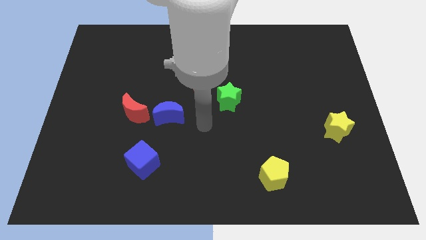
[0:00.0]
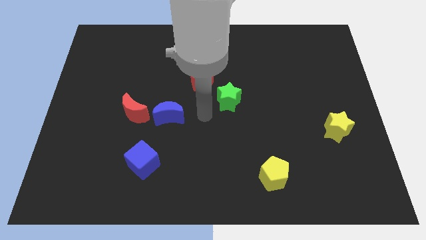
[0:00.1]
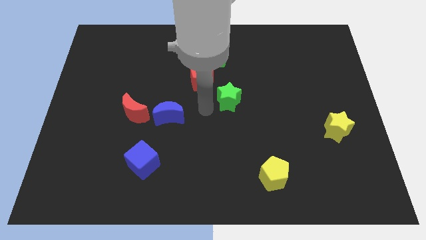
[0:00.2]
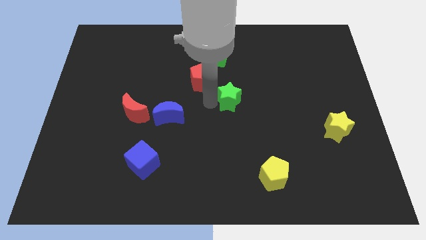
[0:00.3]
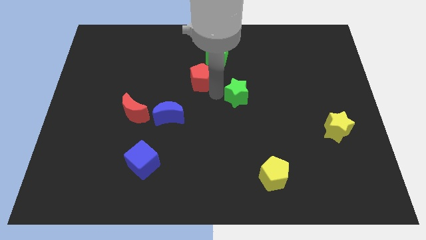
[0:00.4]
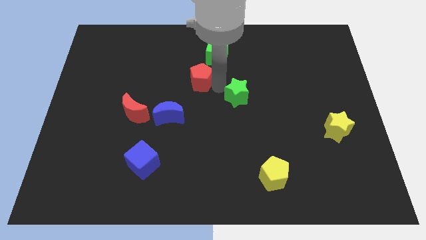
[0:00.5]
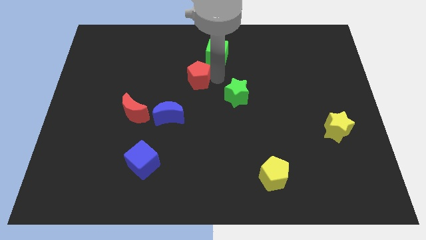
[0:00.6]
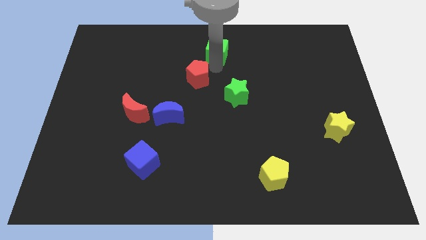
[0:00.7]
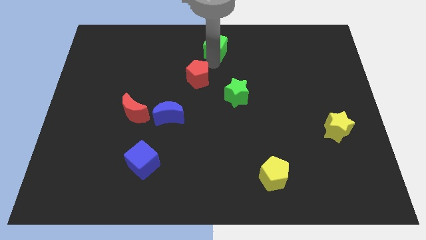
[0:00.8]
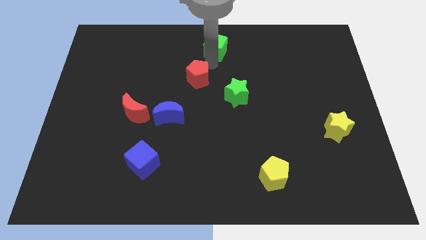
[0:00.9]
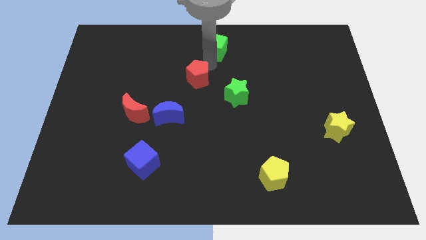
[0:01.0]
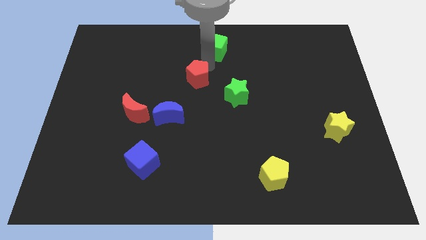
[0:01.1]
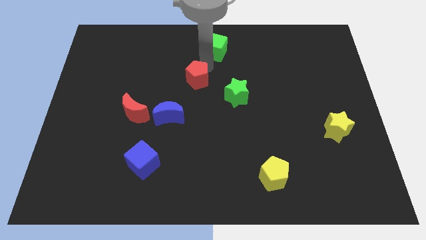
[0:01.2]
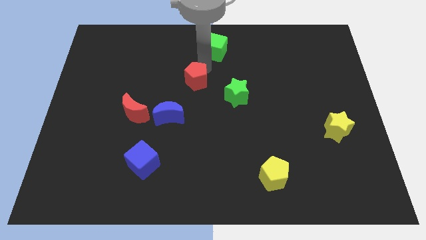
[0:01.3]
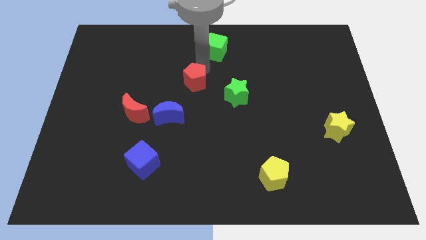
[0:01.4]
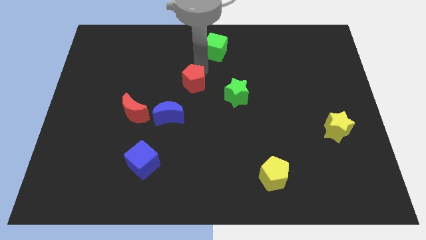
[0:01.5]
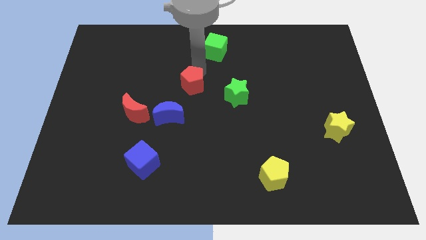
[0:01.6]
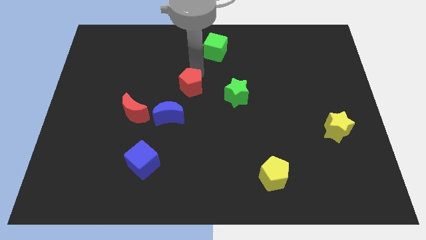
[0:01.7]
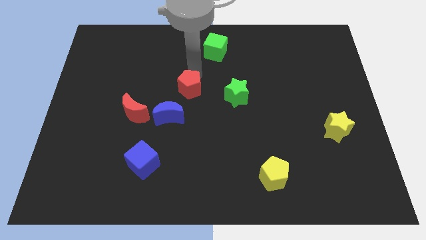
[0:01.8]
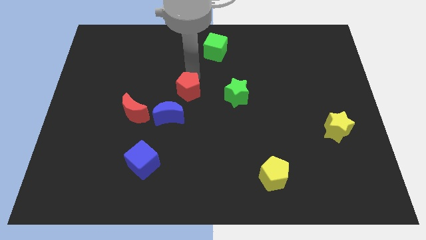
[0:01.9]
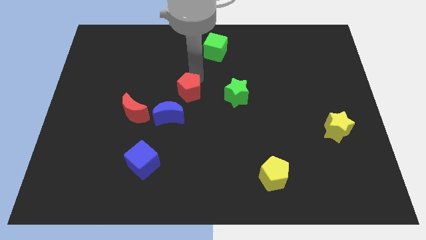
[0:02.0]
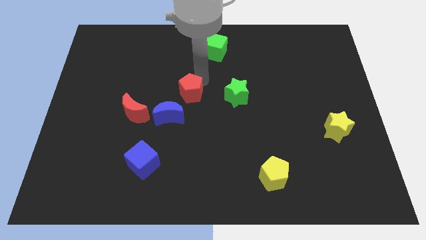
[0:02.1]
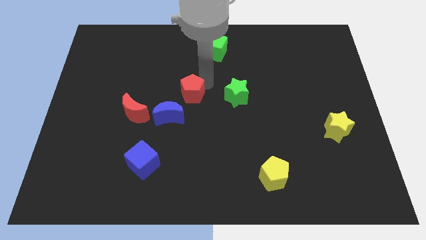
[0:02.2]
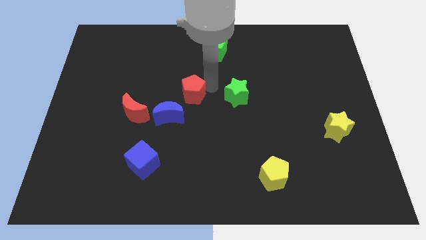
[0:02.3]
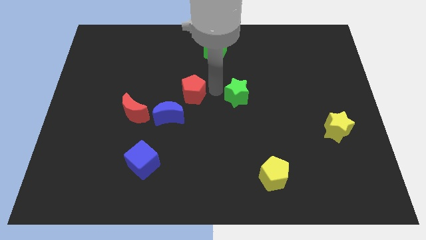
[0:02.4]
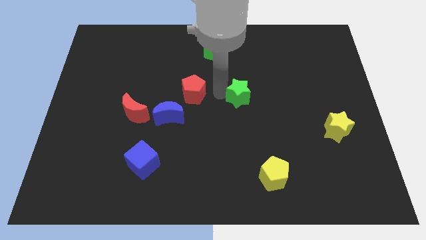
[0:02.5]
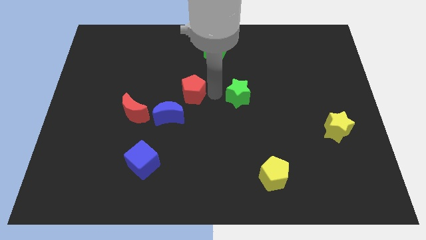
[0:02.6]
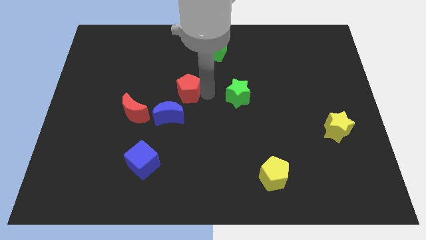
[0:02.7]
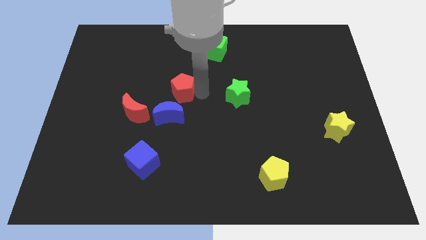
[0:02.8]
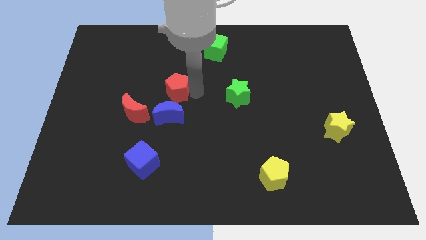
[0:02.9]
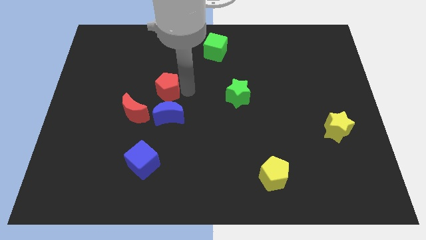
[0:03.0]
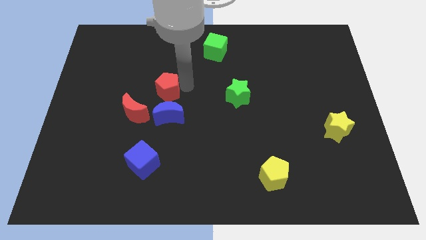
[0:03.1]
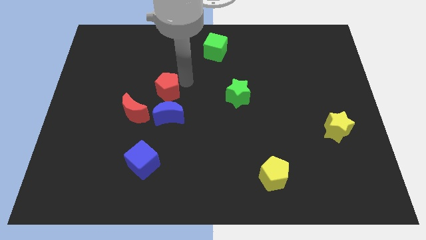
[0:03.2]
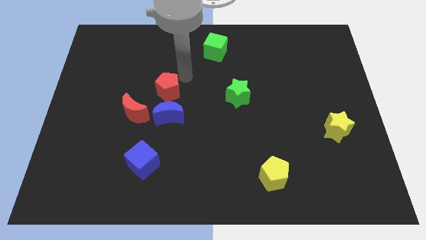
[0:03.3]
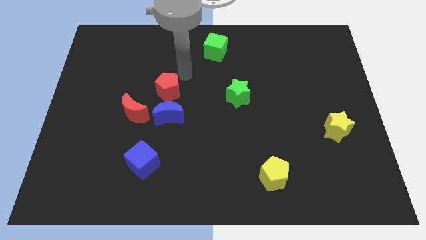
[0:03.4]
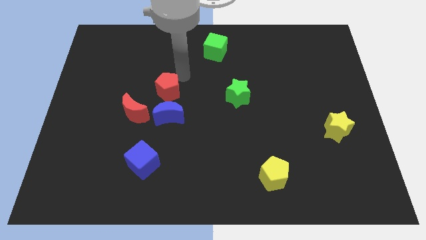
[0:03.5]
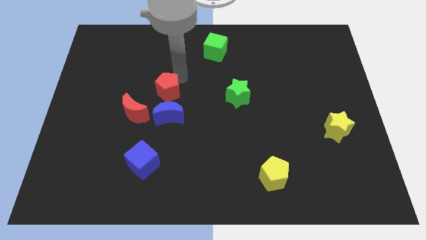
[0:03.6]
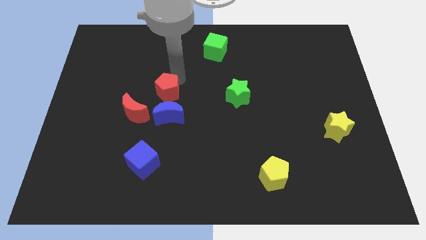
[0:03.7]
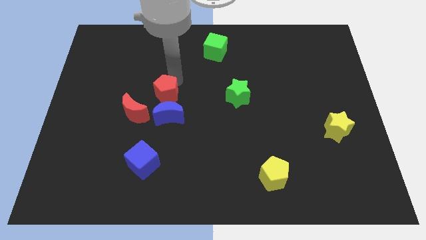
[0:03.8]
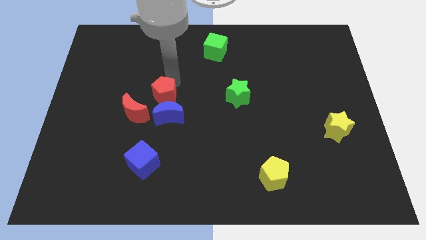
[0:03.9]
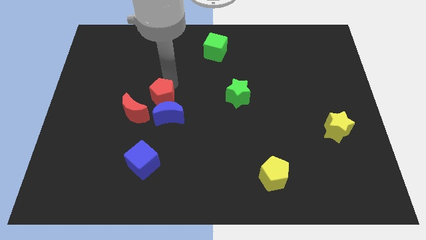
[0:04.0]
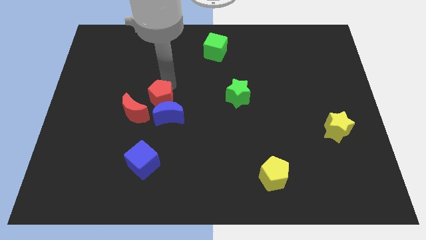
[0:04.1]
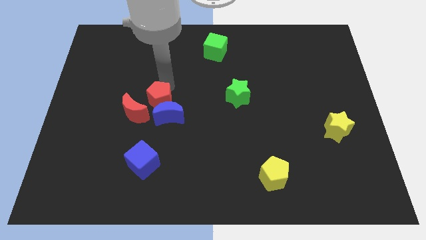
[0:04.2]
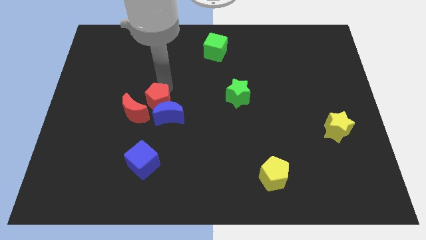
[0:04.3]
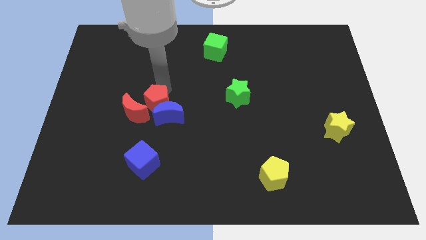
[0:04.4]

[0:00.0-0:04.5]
move the red pentagon next to the red moon

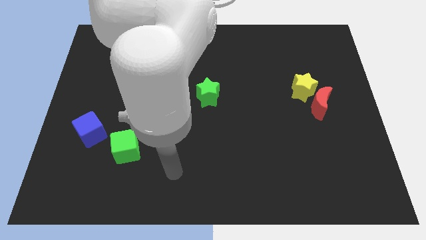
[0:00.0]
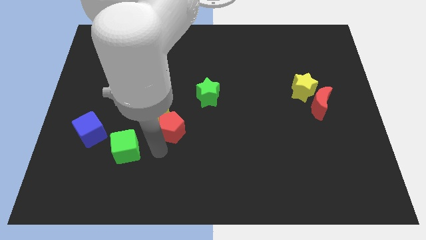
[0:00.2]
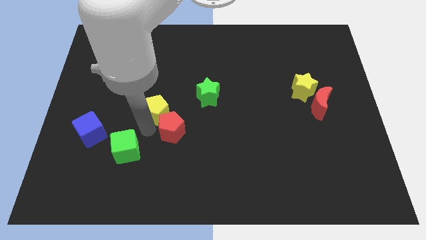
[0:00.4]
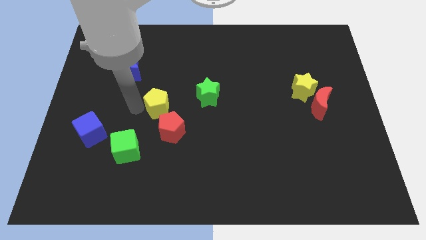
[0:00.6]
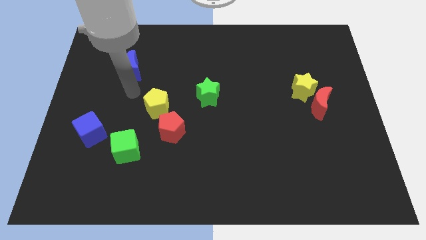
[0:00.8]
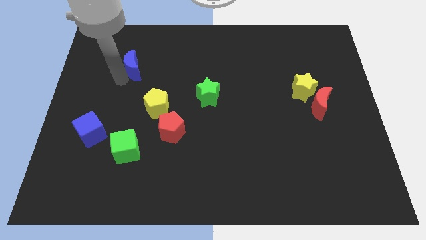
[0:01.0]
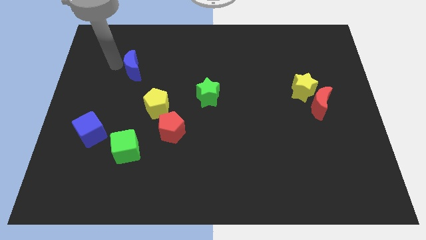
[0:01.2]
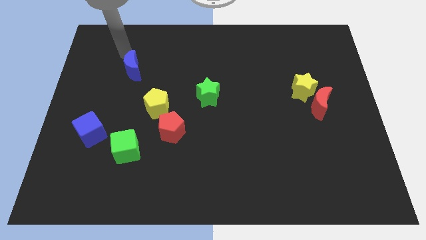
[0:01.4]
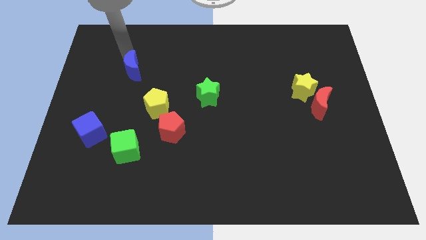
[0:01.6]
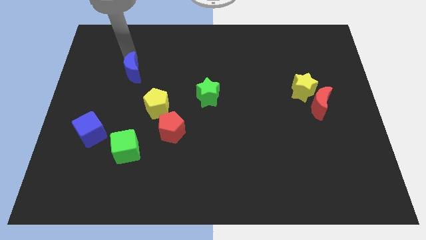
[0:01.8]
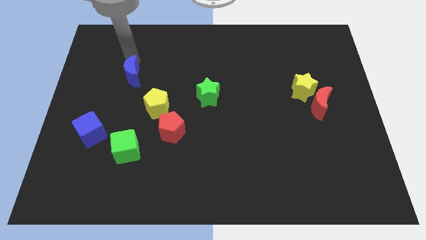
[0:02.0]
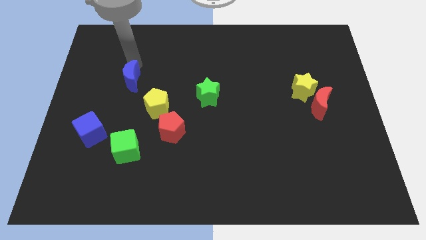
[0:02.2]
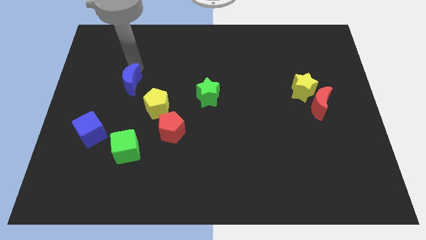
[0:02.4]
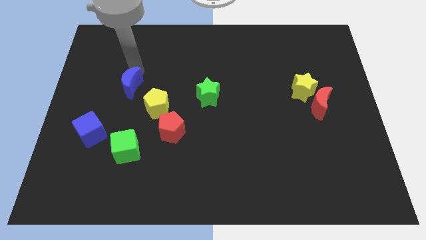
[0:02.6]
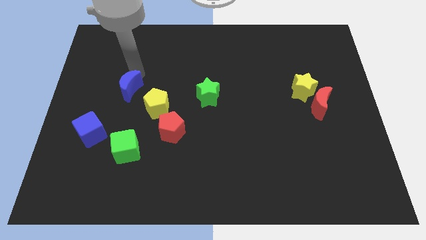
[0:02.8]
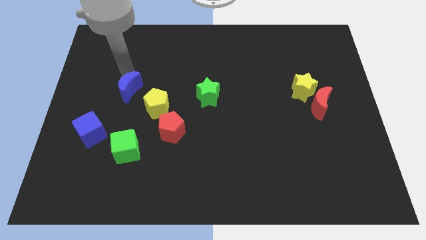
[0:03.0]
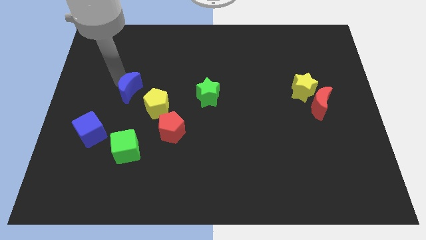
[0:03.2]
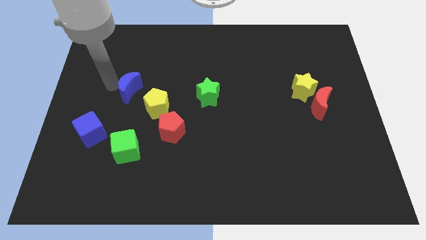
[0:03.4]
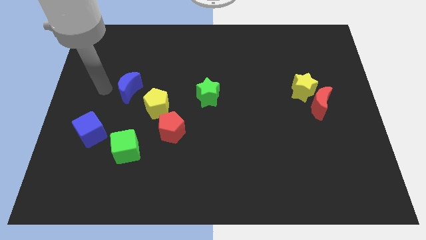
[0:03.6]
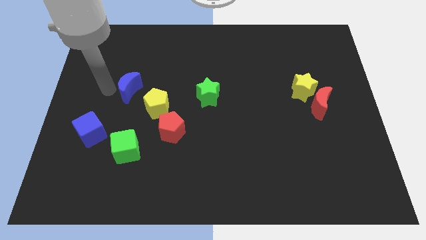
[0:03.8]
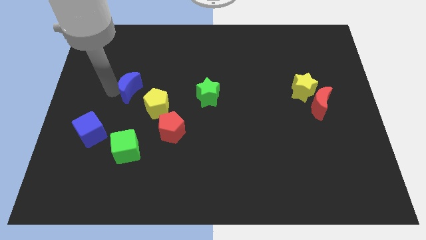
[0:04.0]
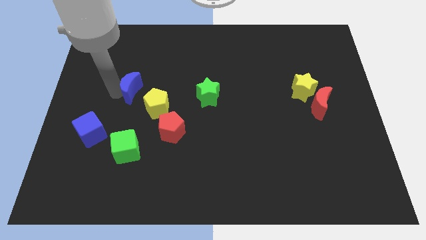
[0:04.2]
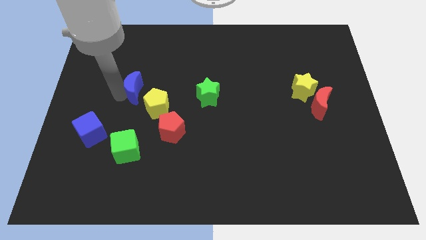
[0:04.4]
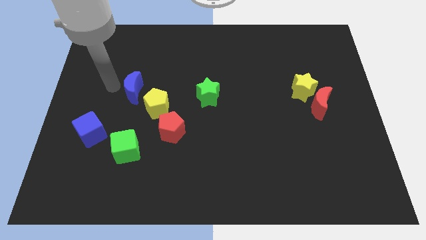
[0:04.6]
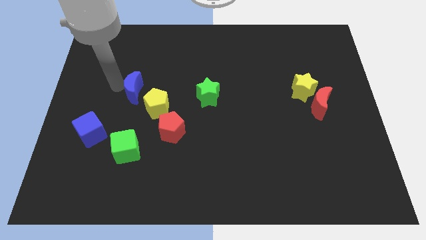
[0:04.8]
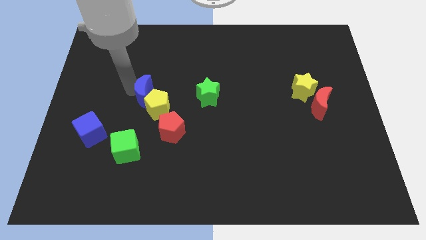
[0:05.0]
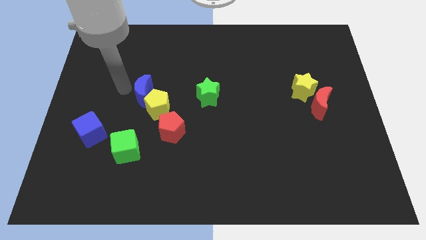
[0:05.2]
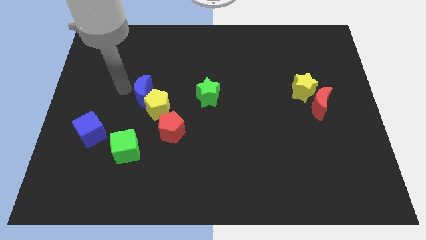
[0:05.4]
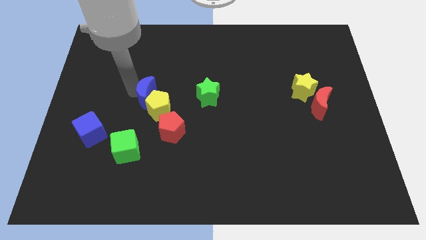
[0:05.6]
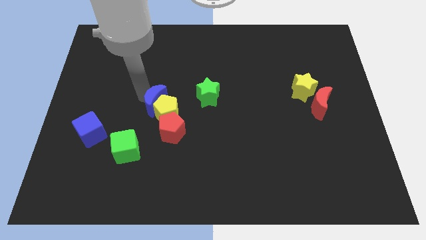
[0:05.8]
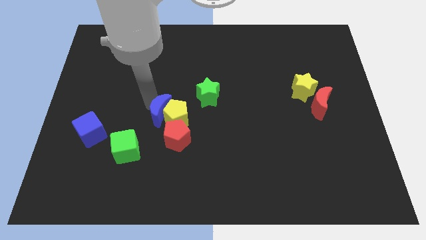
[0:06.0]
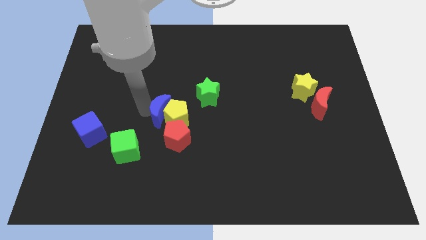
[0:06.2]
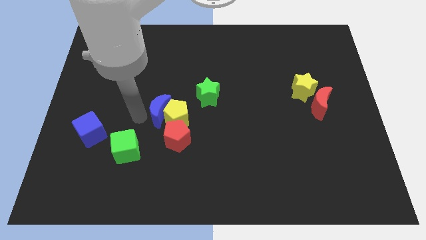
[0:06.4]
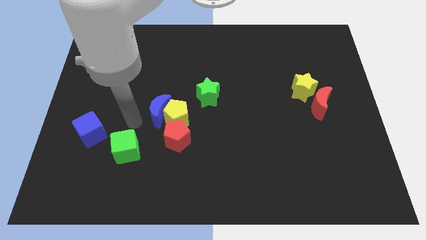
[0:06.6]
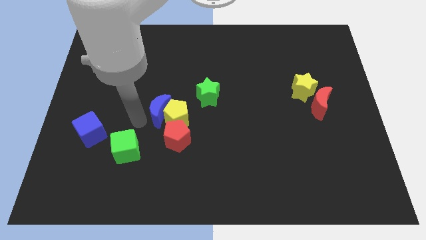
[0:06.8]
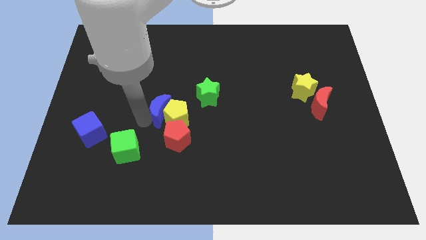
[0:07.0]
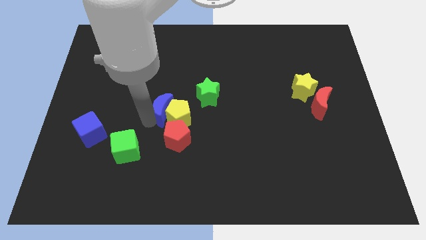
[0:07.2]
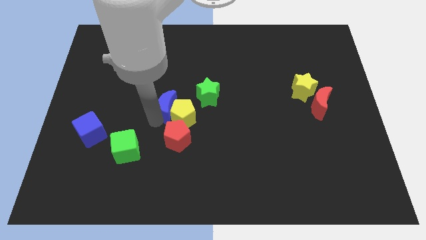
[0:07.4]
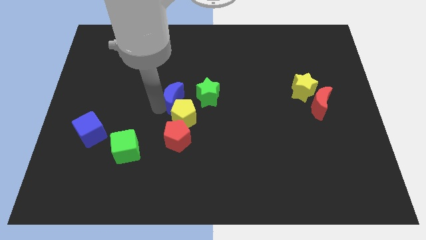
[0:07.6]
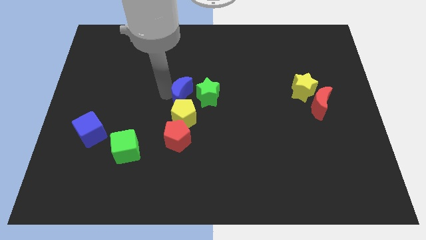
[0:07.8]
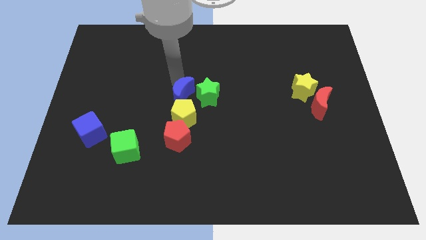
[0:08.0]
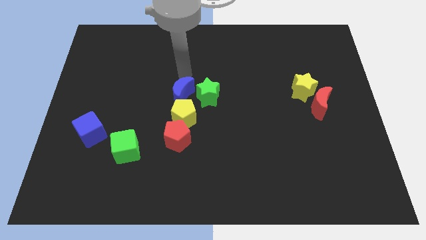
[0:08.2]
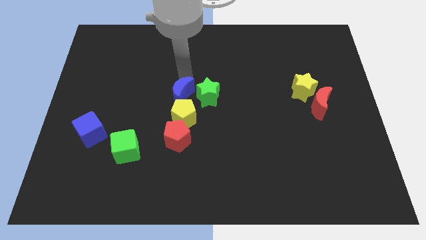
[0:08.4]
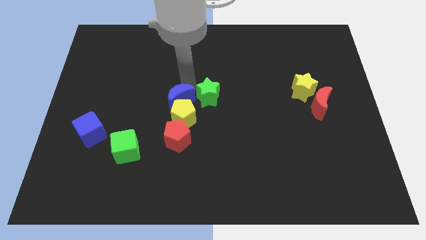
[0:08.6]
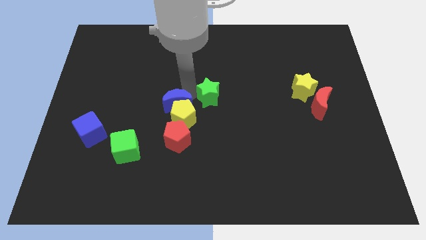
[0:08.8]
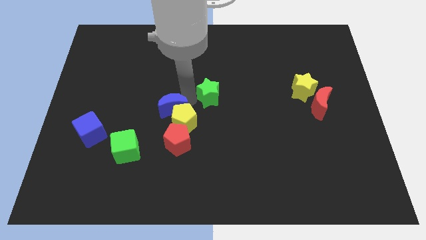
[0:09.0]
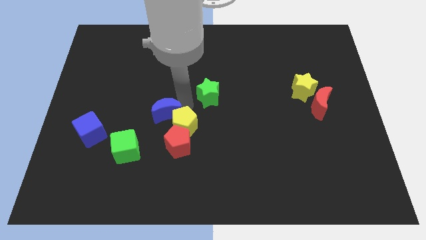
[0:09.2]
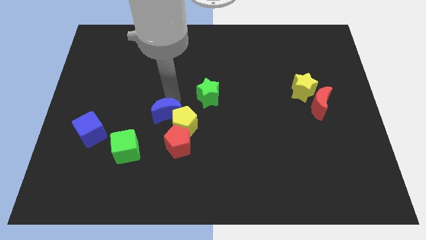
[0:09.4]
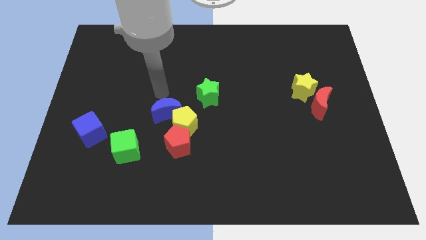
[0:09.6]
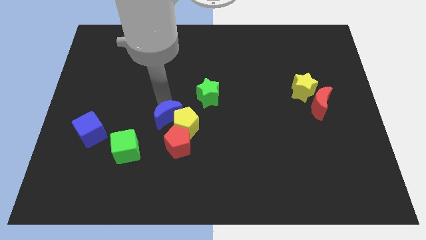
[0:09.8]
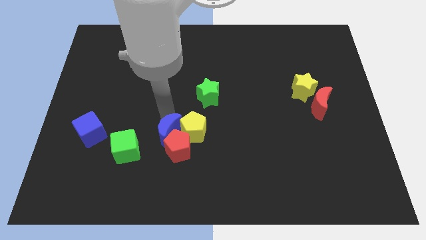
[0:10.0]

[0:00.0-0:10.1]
put the blue moon close to the red pentagon
